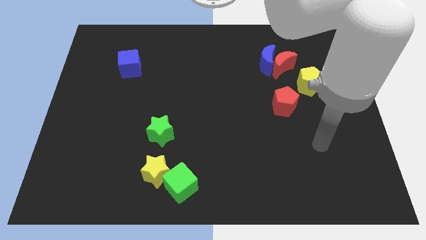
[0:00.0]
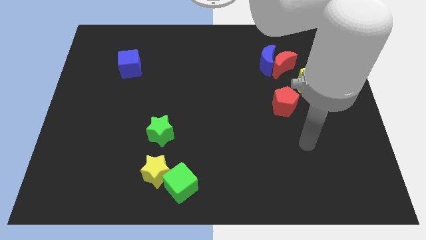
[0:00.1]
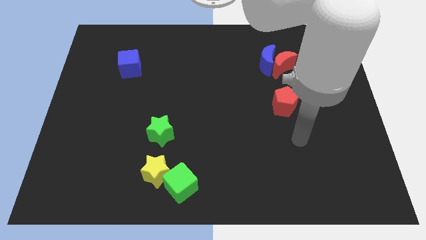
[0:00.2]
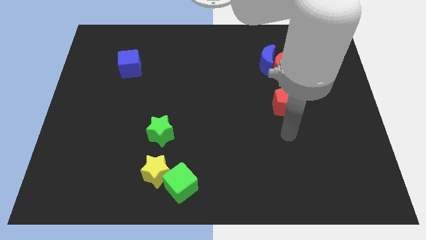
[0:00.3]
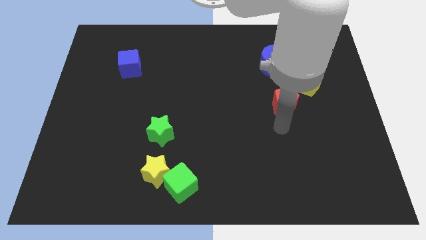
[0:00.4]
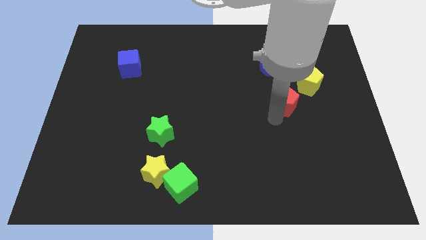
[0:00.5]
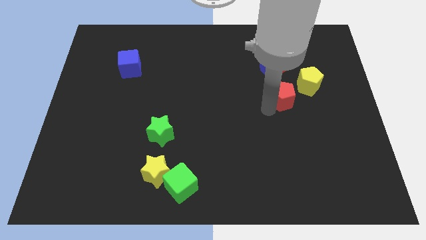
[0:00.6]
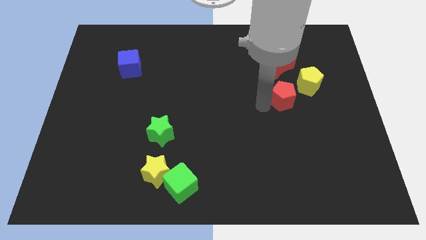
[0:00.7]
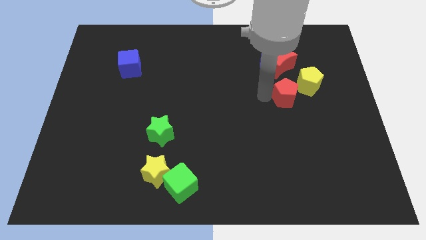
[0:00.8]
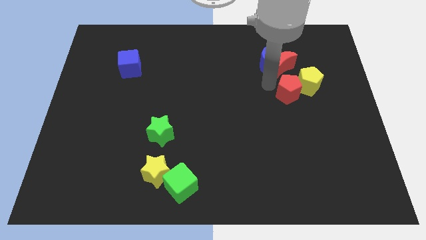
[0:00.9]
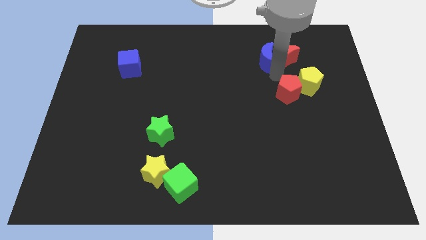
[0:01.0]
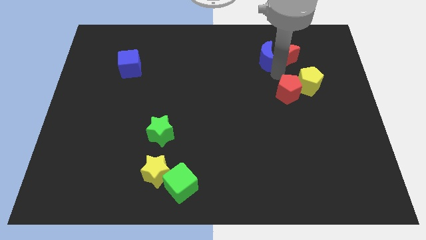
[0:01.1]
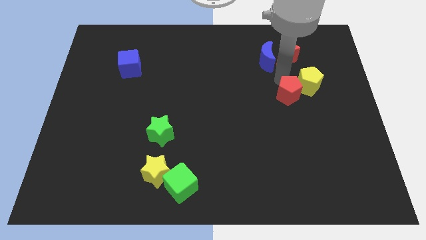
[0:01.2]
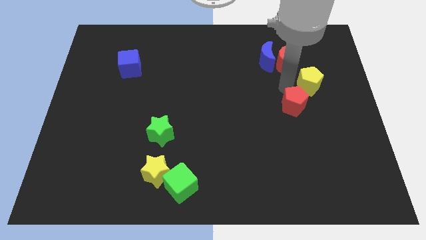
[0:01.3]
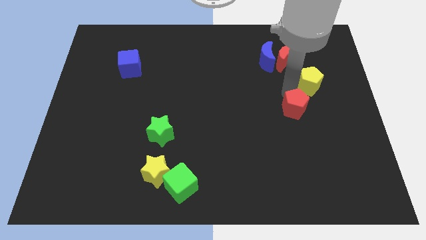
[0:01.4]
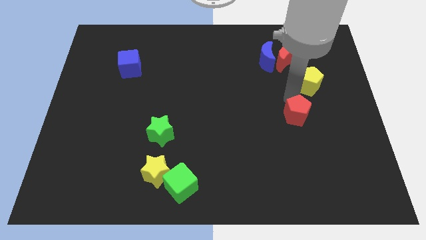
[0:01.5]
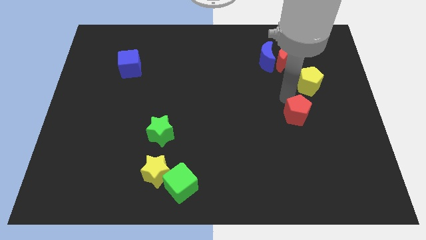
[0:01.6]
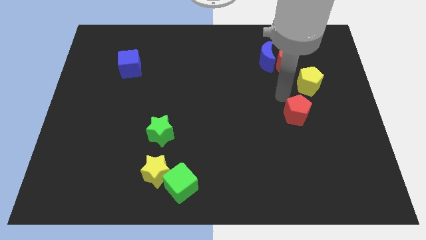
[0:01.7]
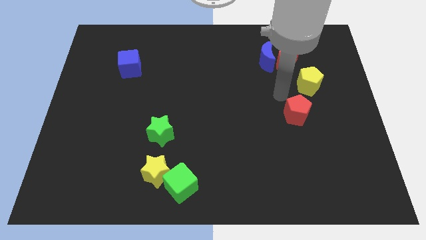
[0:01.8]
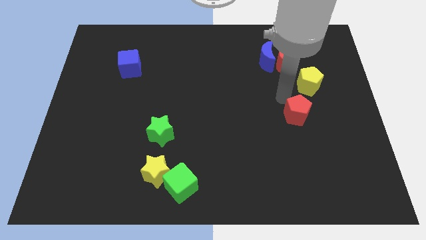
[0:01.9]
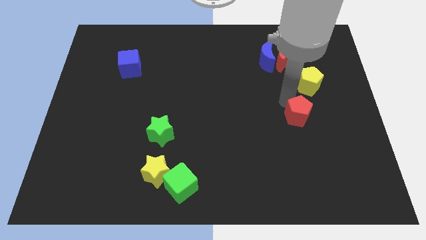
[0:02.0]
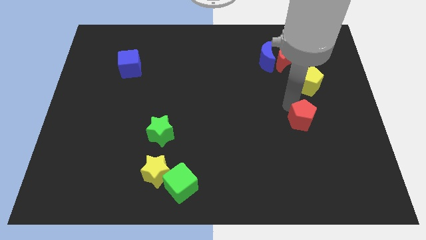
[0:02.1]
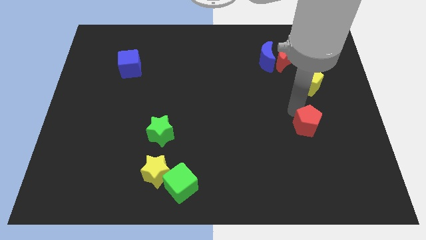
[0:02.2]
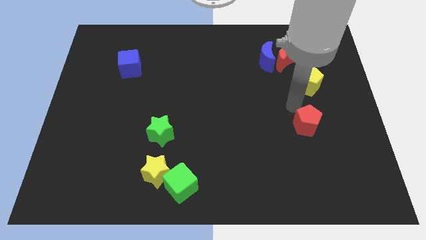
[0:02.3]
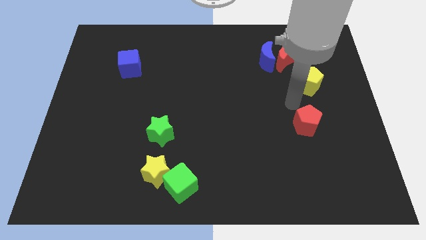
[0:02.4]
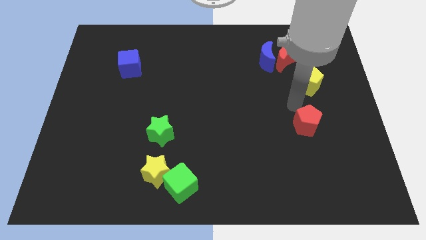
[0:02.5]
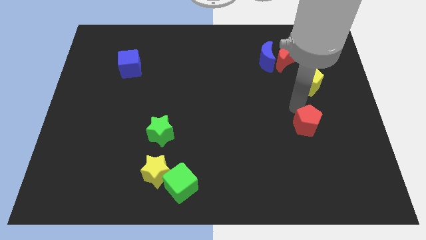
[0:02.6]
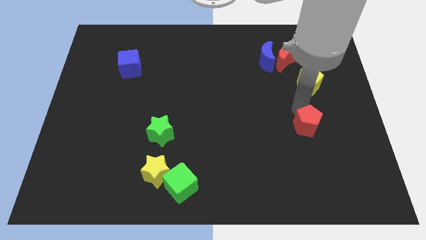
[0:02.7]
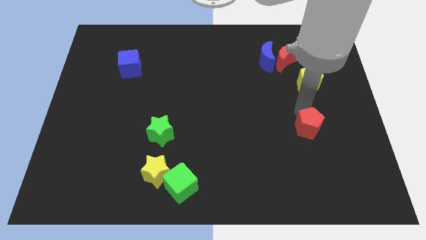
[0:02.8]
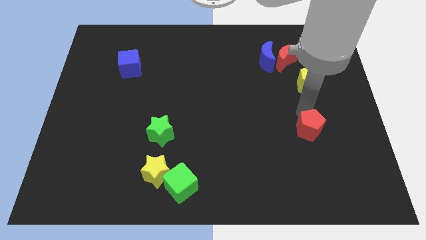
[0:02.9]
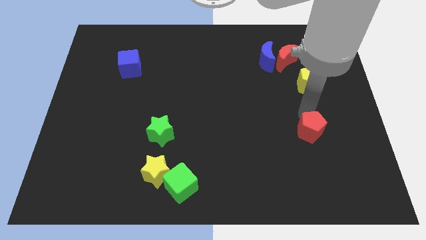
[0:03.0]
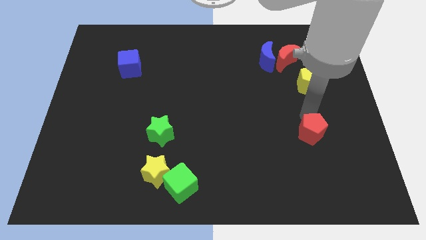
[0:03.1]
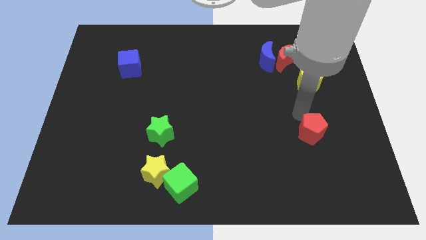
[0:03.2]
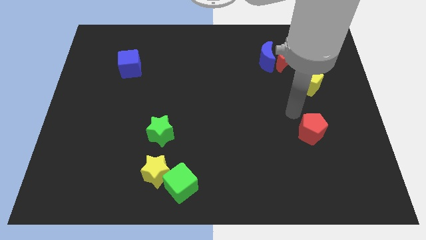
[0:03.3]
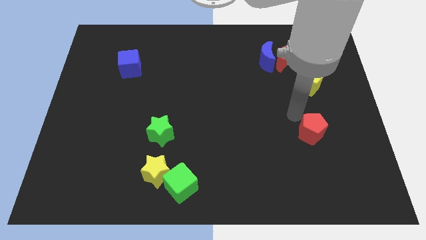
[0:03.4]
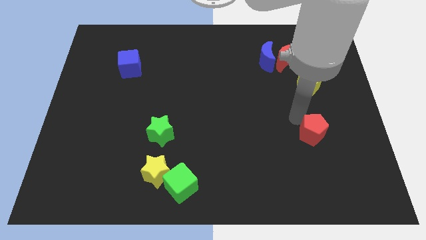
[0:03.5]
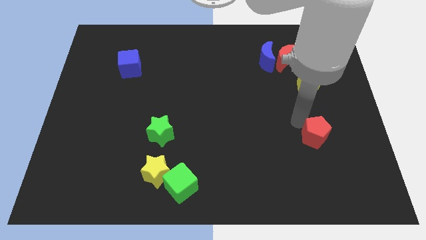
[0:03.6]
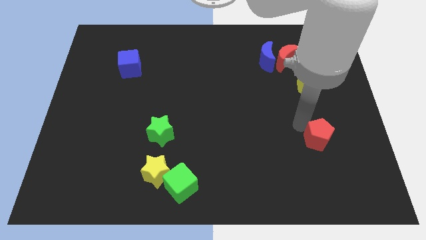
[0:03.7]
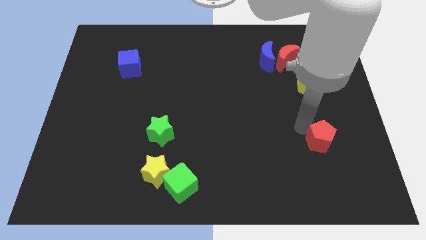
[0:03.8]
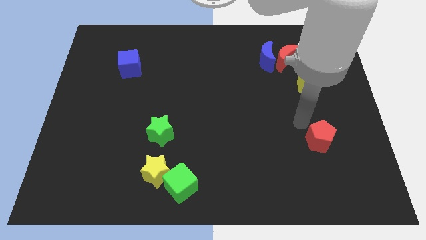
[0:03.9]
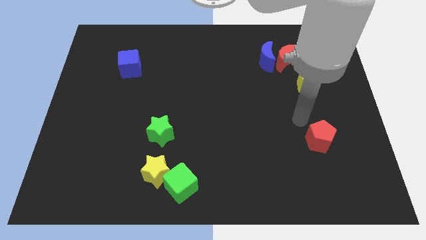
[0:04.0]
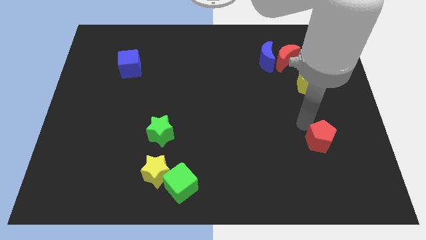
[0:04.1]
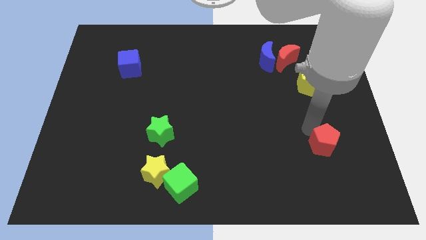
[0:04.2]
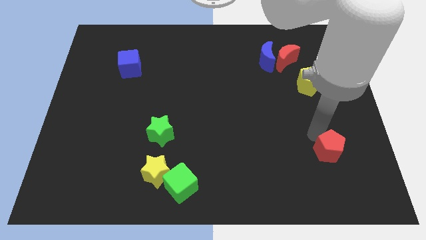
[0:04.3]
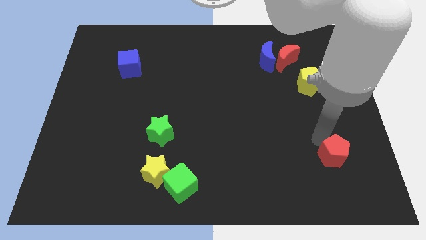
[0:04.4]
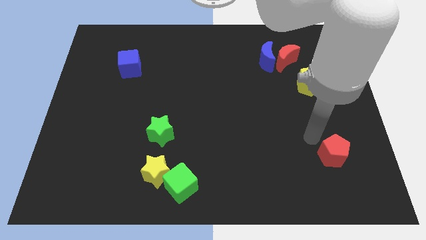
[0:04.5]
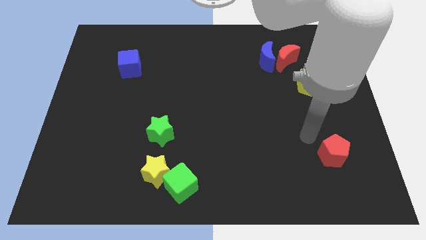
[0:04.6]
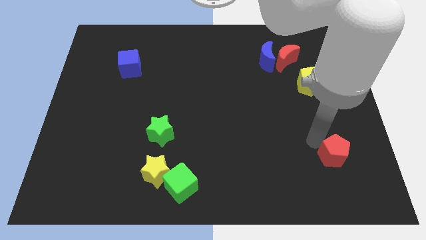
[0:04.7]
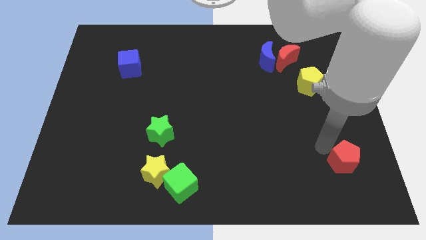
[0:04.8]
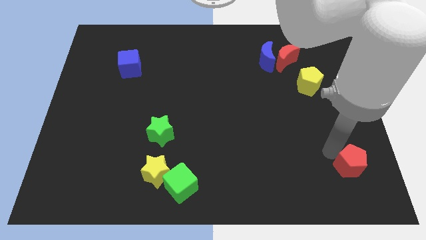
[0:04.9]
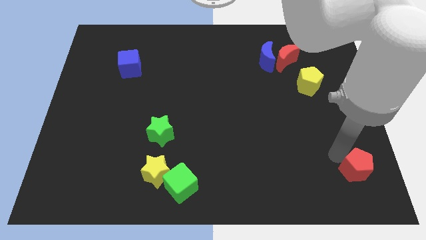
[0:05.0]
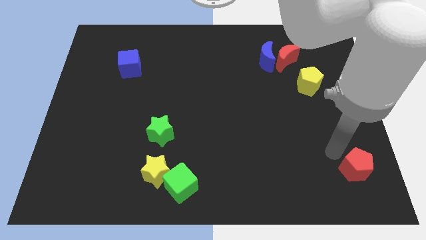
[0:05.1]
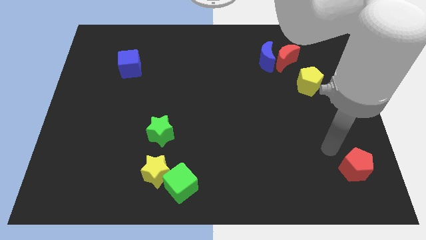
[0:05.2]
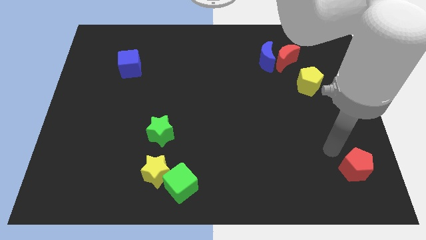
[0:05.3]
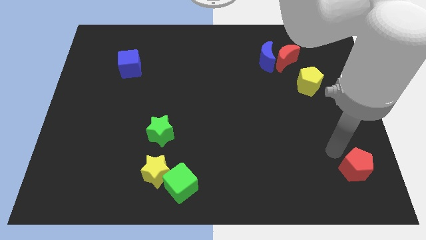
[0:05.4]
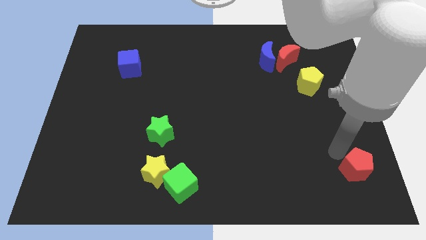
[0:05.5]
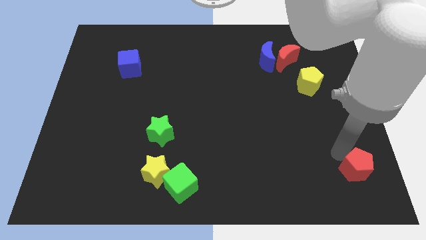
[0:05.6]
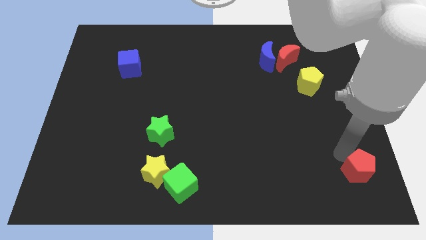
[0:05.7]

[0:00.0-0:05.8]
put the red pentagon to the bottom right

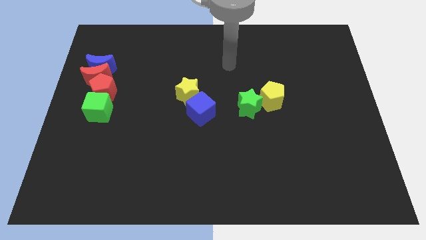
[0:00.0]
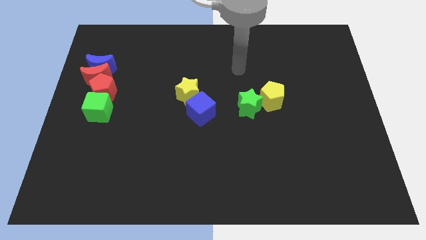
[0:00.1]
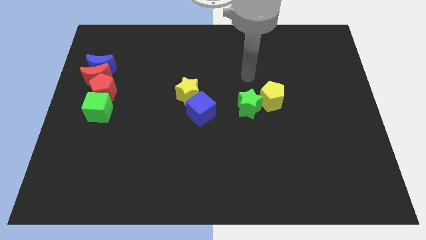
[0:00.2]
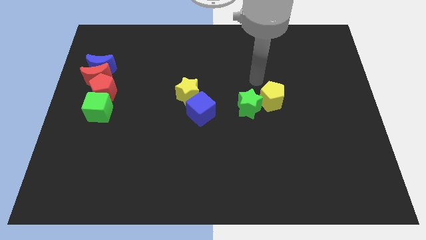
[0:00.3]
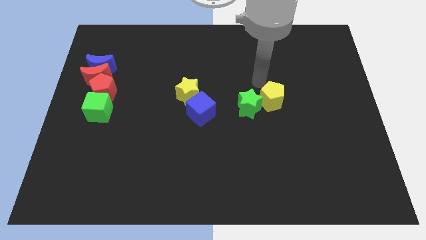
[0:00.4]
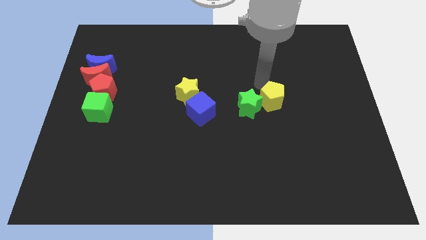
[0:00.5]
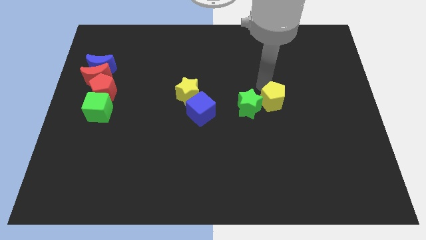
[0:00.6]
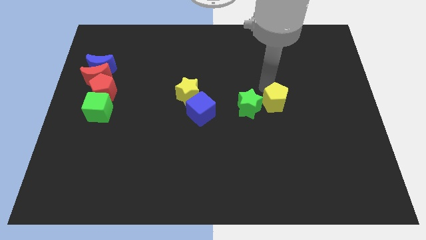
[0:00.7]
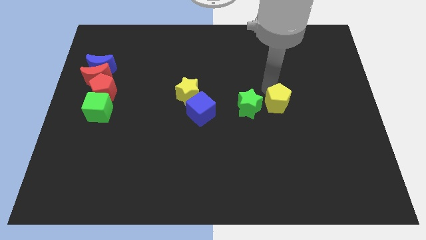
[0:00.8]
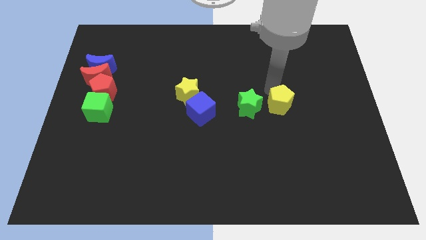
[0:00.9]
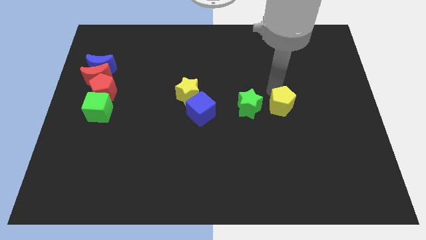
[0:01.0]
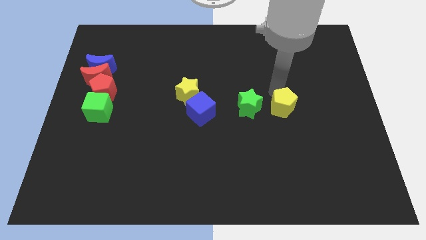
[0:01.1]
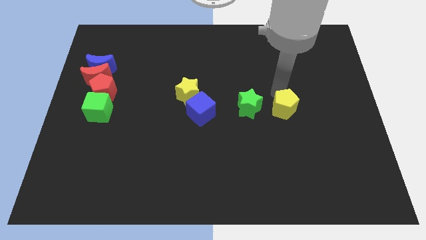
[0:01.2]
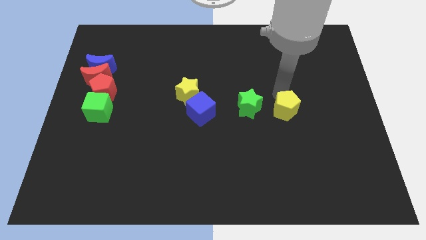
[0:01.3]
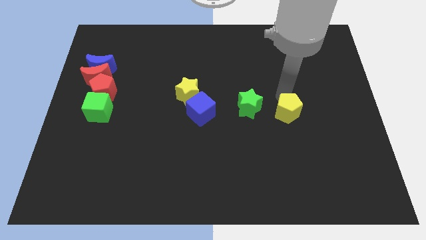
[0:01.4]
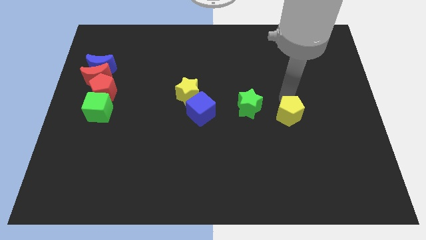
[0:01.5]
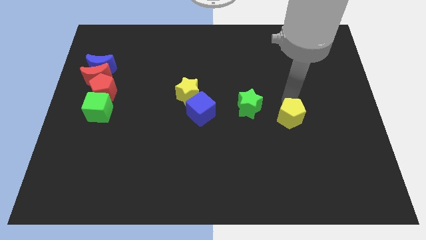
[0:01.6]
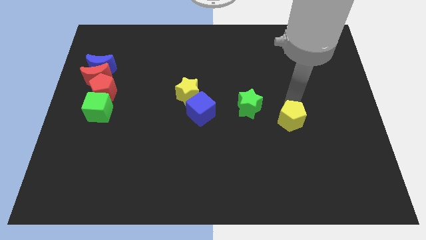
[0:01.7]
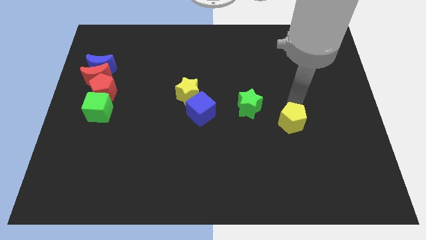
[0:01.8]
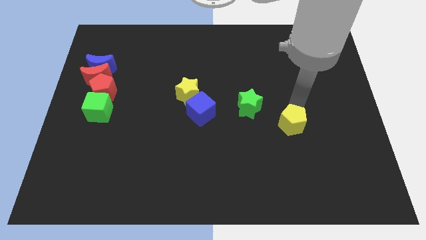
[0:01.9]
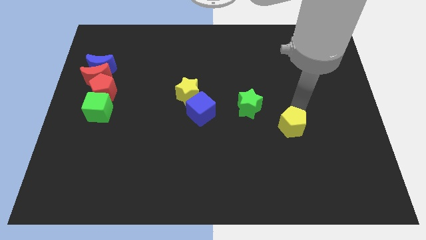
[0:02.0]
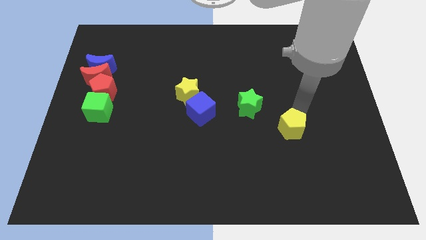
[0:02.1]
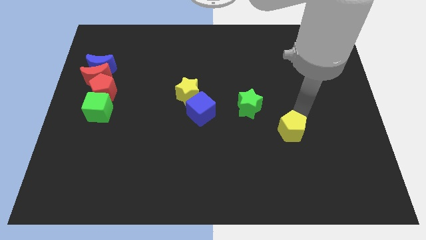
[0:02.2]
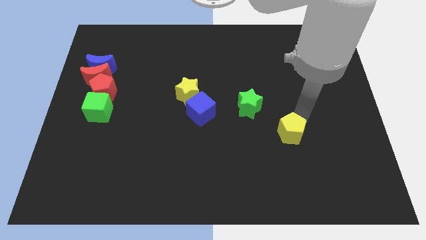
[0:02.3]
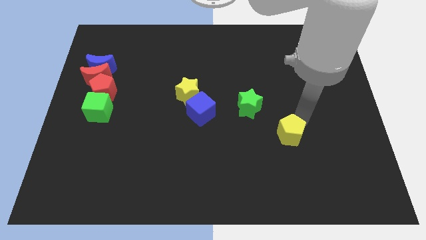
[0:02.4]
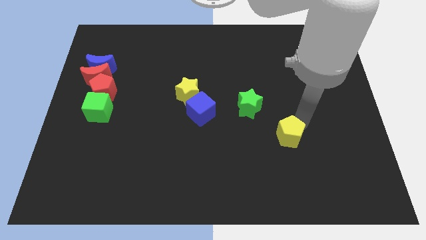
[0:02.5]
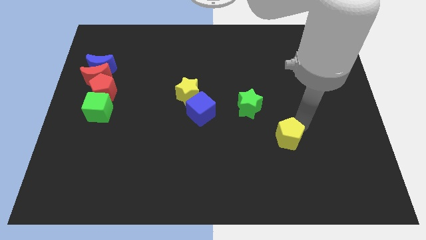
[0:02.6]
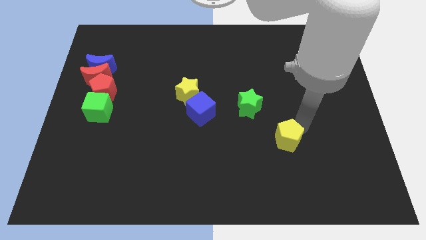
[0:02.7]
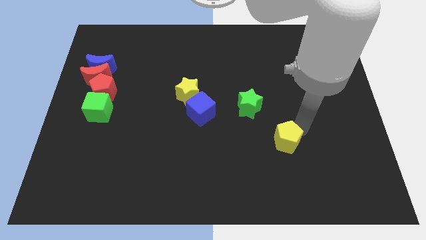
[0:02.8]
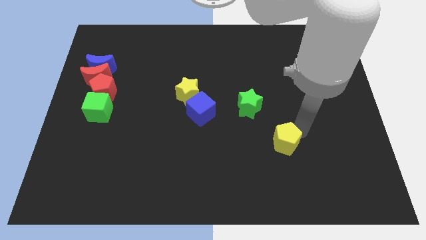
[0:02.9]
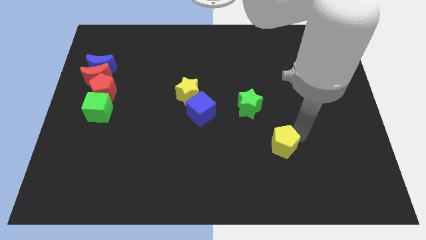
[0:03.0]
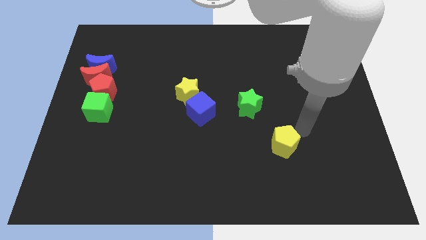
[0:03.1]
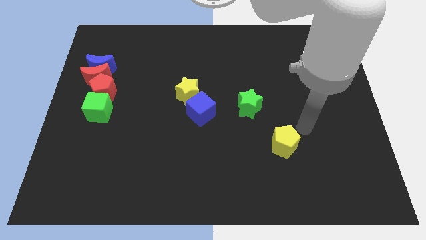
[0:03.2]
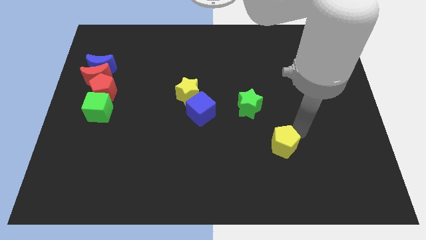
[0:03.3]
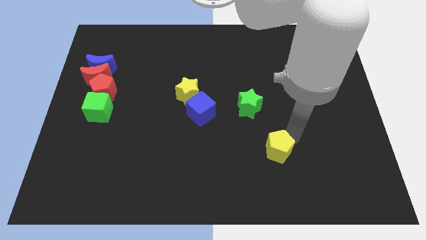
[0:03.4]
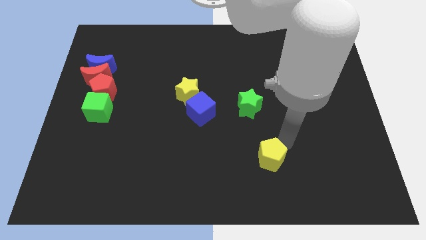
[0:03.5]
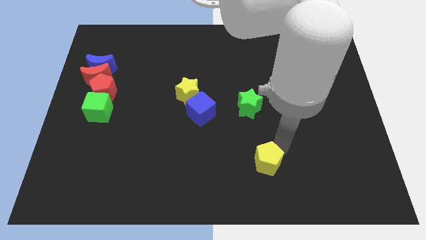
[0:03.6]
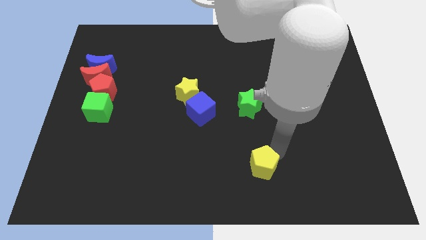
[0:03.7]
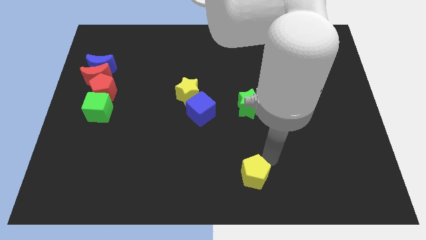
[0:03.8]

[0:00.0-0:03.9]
slide the yellow pentagon to the bottom
